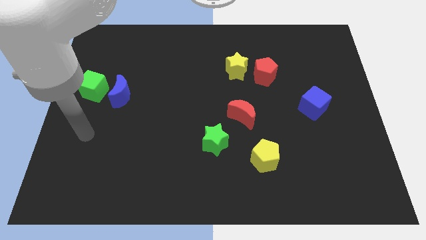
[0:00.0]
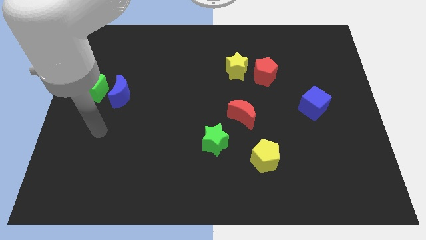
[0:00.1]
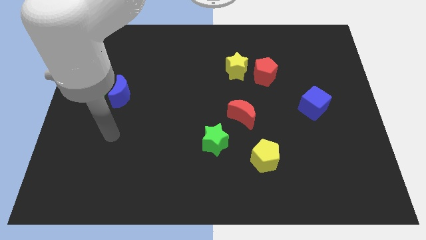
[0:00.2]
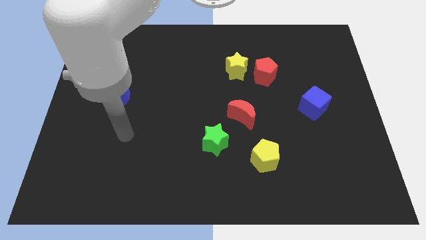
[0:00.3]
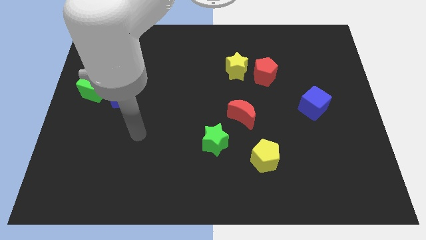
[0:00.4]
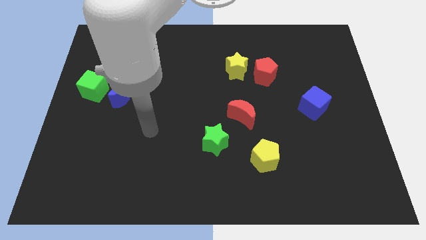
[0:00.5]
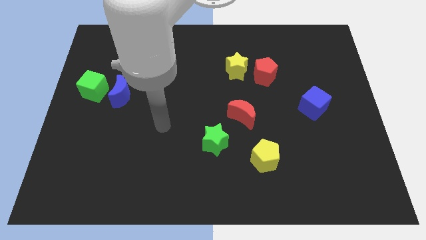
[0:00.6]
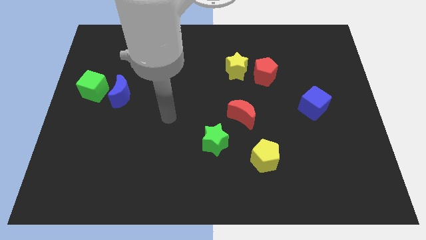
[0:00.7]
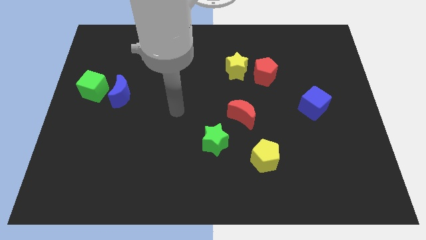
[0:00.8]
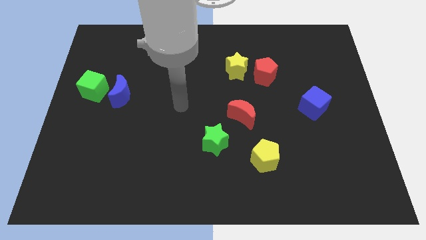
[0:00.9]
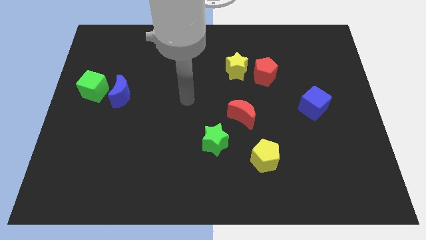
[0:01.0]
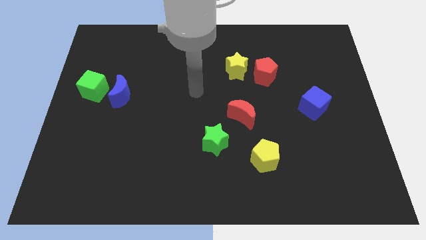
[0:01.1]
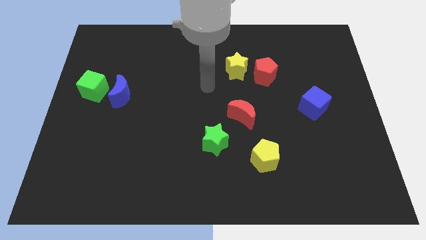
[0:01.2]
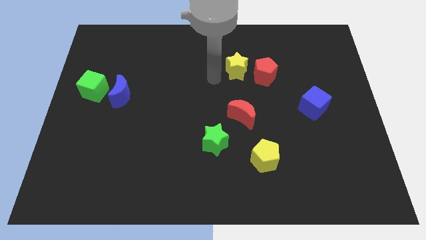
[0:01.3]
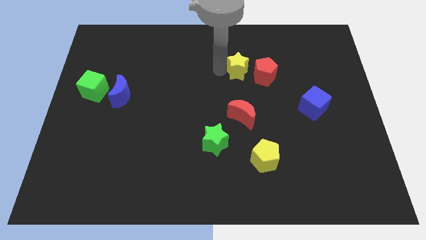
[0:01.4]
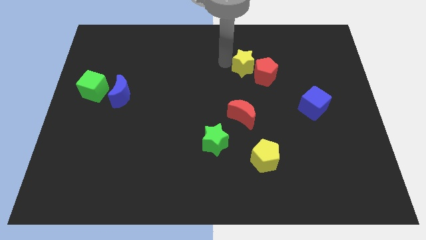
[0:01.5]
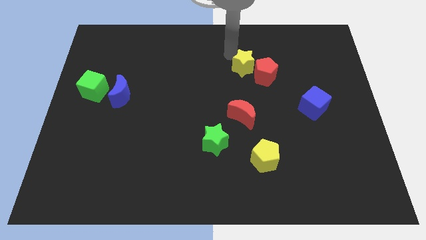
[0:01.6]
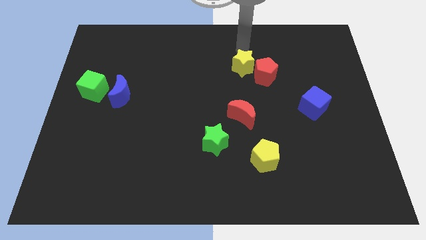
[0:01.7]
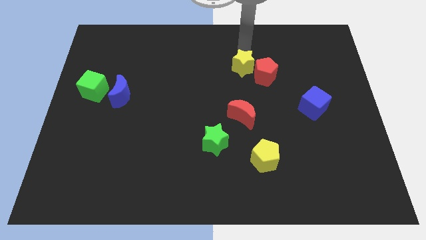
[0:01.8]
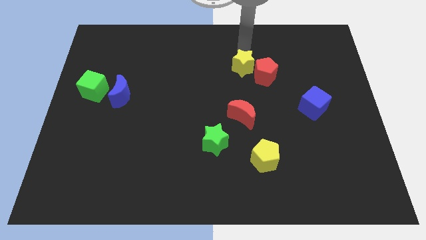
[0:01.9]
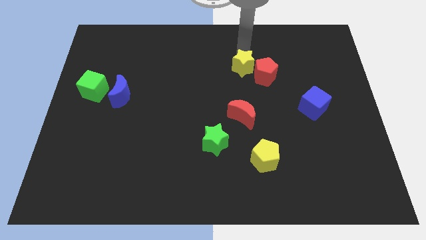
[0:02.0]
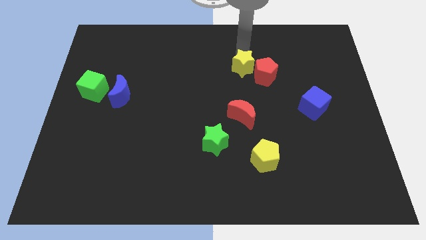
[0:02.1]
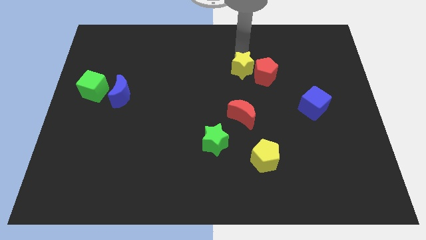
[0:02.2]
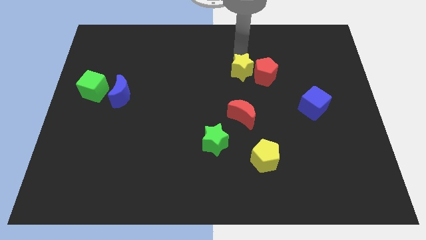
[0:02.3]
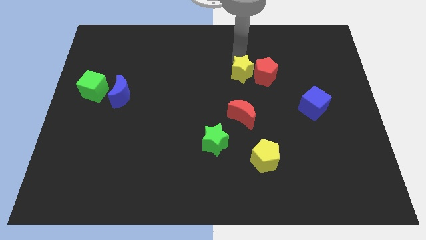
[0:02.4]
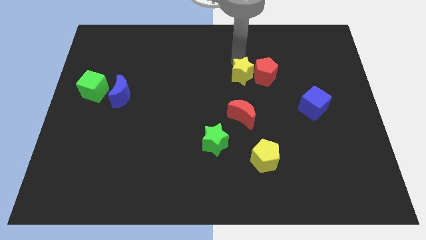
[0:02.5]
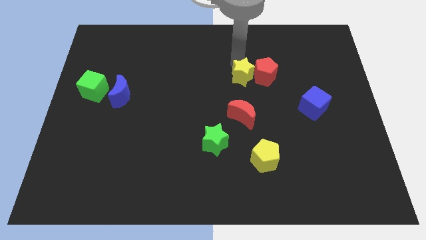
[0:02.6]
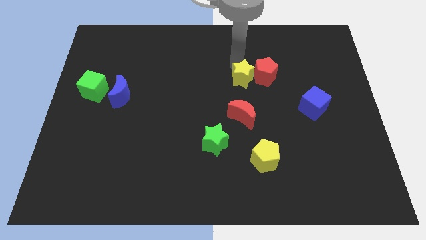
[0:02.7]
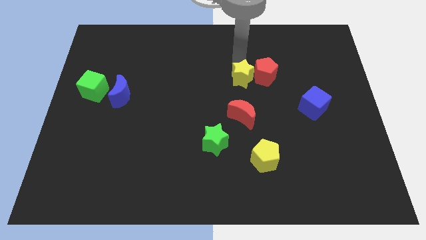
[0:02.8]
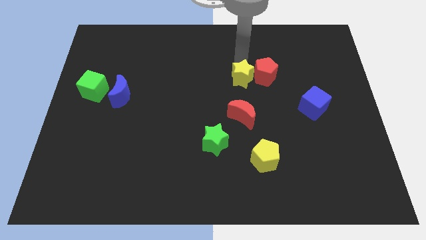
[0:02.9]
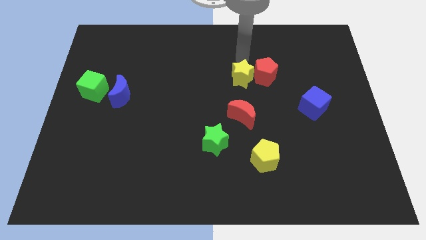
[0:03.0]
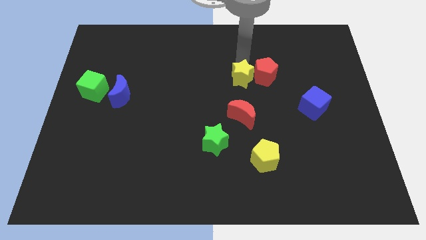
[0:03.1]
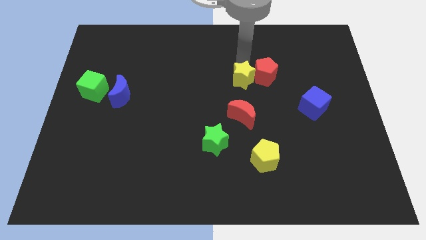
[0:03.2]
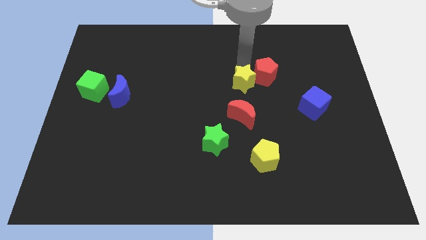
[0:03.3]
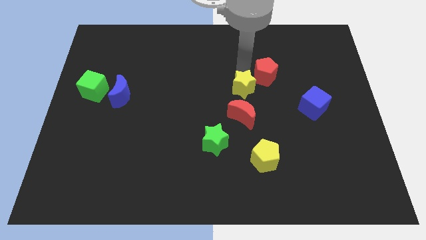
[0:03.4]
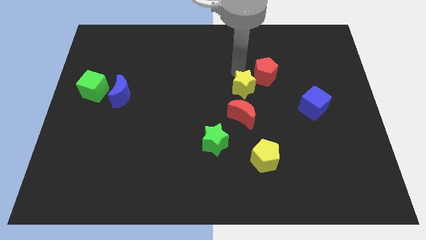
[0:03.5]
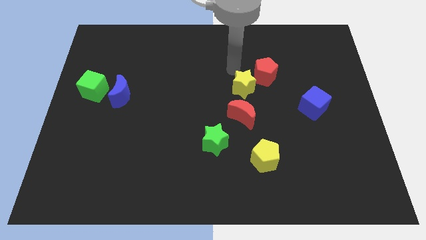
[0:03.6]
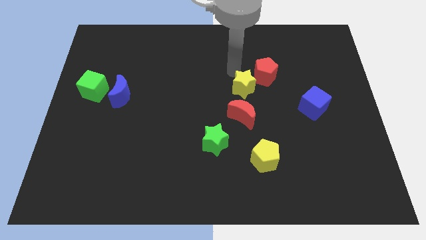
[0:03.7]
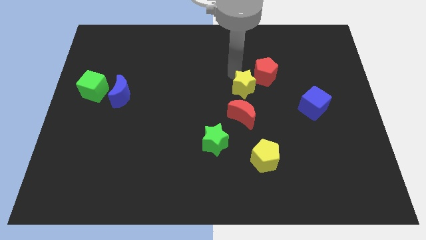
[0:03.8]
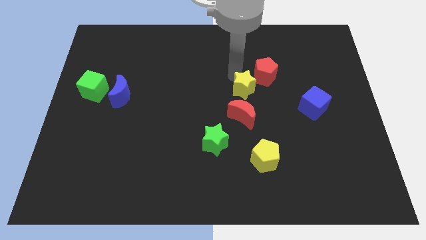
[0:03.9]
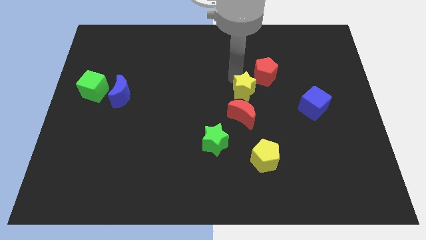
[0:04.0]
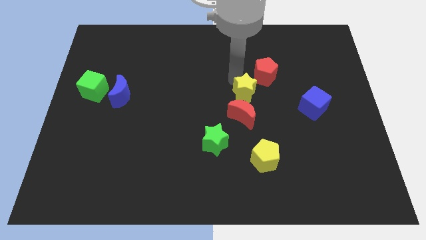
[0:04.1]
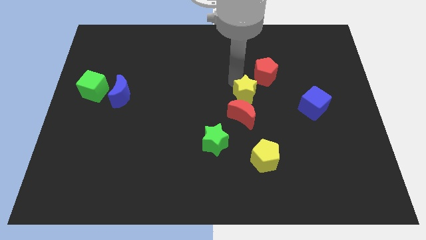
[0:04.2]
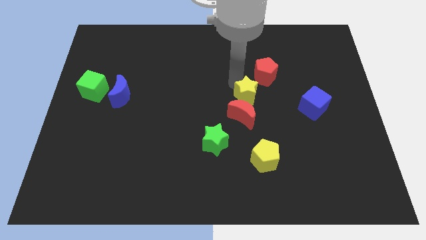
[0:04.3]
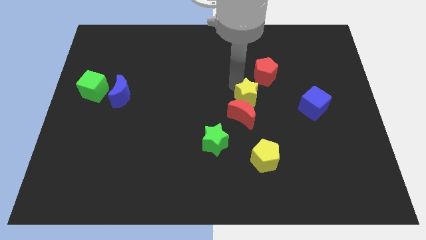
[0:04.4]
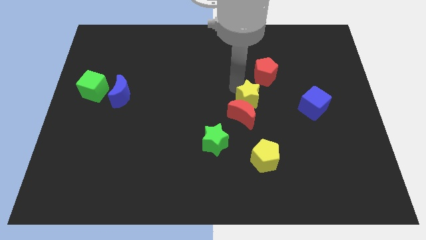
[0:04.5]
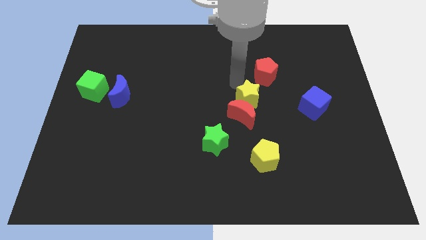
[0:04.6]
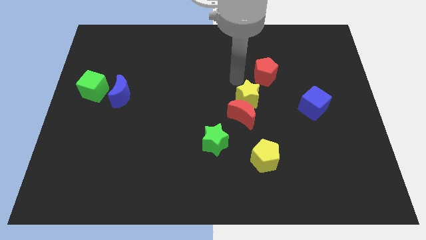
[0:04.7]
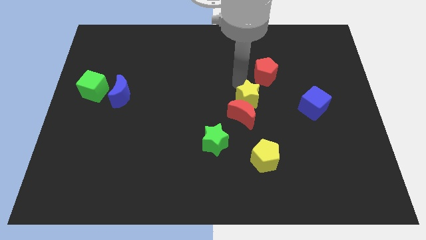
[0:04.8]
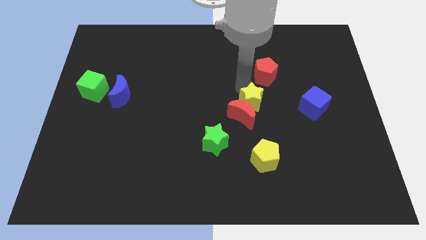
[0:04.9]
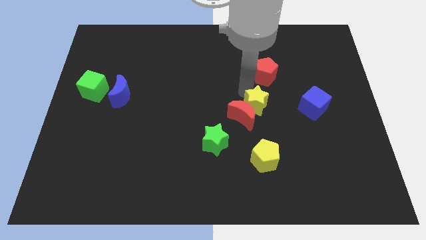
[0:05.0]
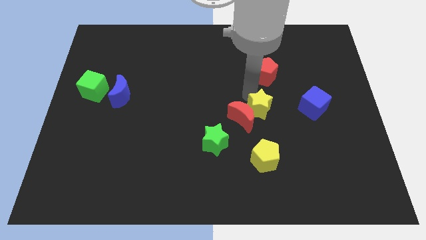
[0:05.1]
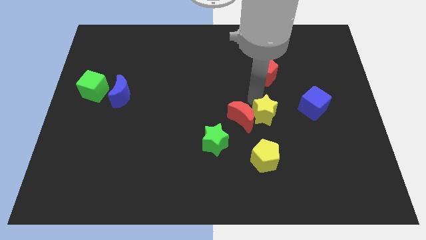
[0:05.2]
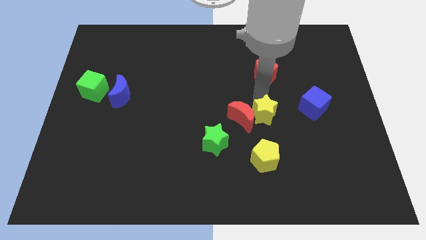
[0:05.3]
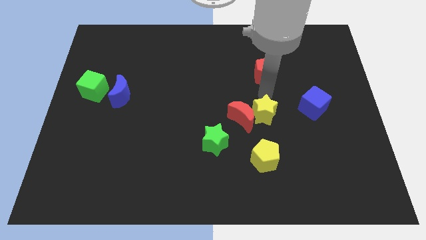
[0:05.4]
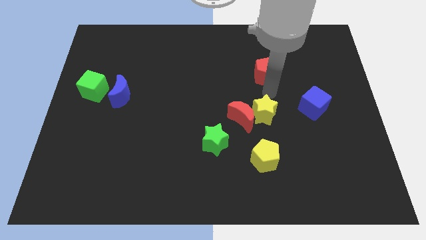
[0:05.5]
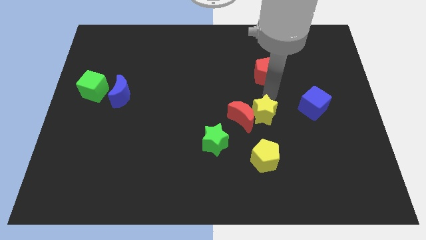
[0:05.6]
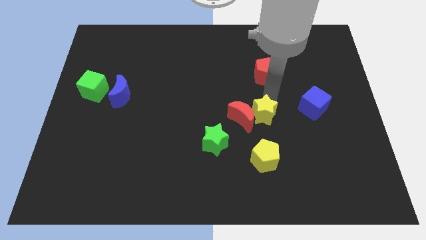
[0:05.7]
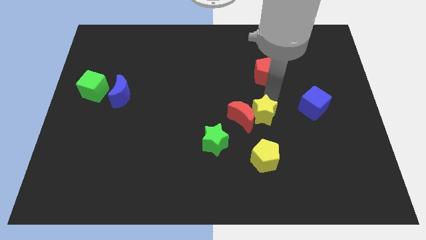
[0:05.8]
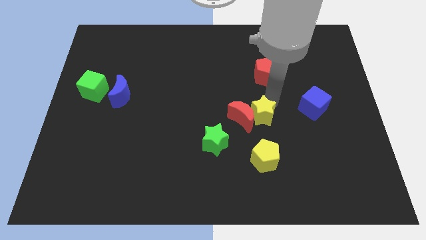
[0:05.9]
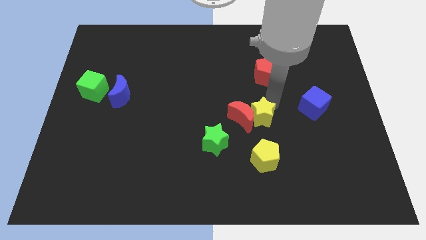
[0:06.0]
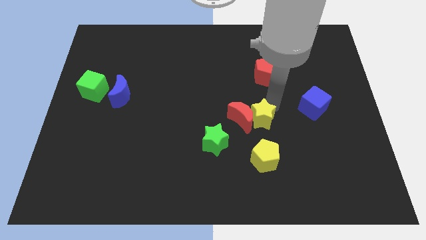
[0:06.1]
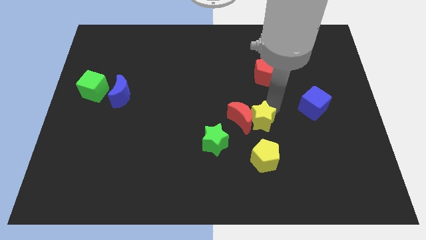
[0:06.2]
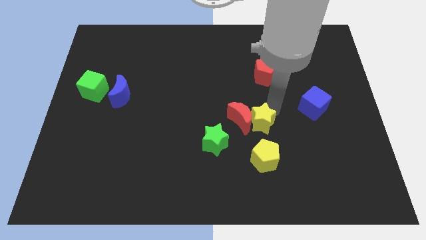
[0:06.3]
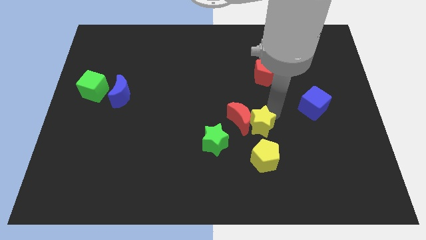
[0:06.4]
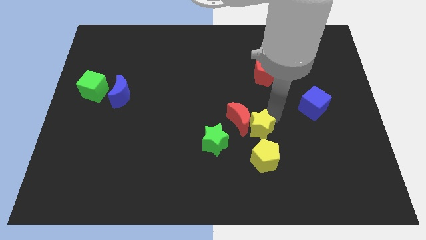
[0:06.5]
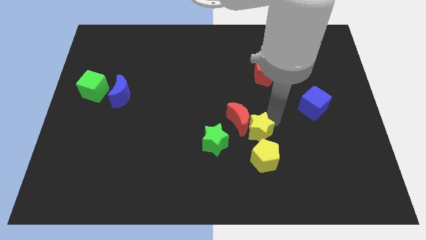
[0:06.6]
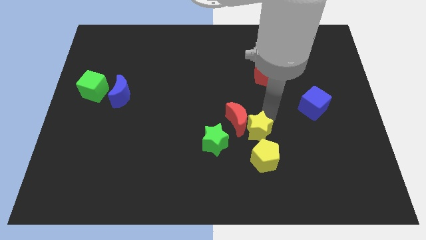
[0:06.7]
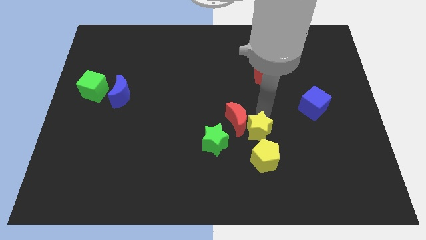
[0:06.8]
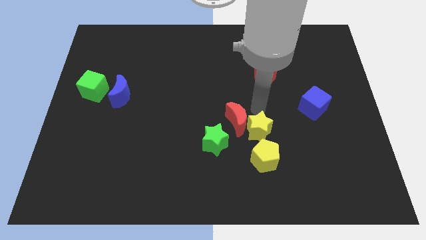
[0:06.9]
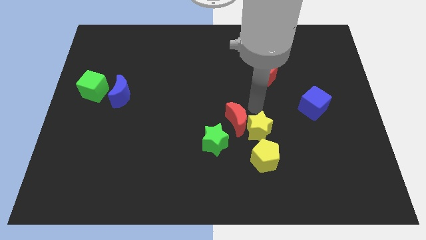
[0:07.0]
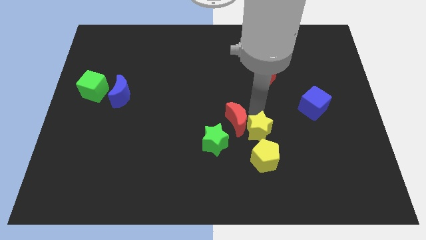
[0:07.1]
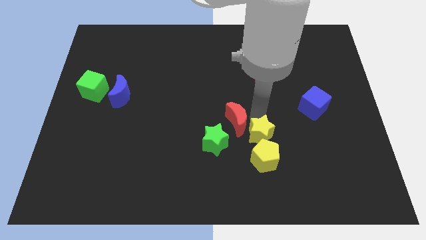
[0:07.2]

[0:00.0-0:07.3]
push the yellow star next to the yellow pentagon
